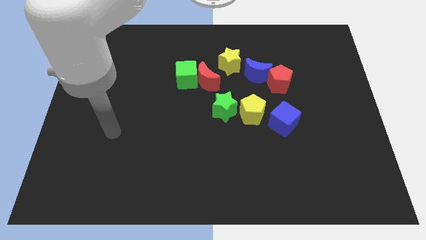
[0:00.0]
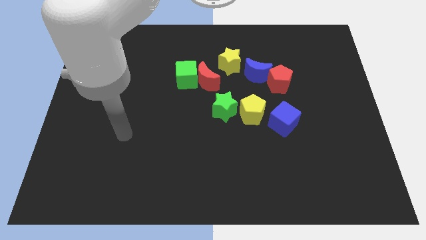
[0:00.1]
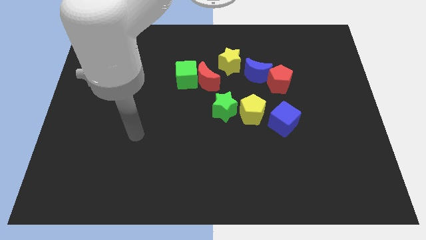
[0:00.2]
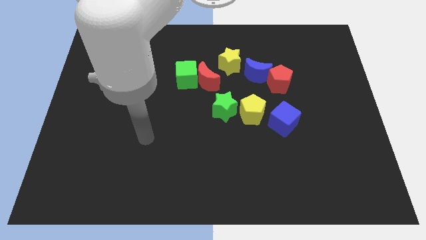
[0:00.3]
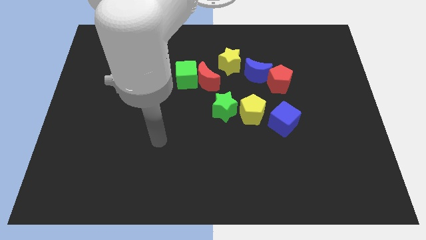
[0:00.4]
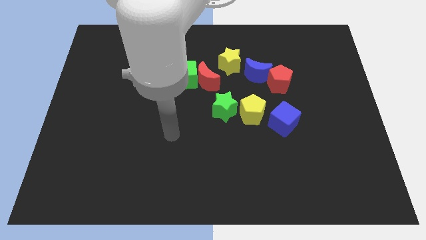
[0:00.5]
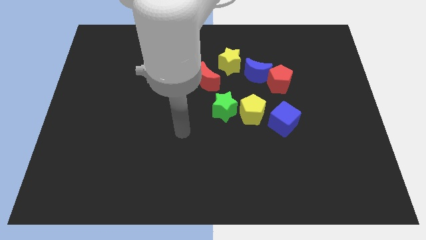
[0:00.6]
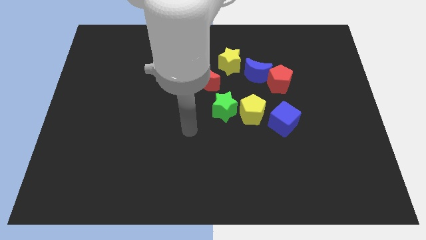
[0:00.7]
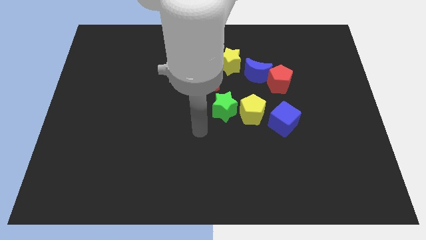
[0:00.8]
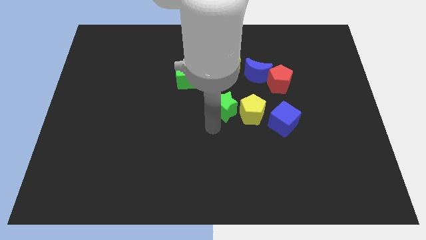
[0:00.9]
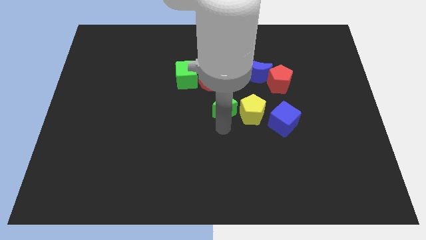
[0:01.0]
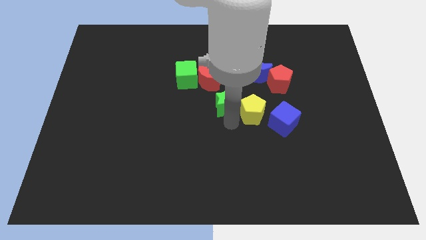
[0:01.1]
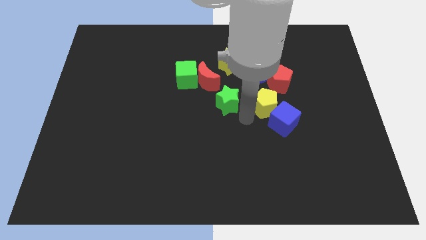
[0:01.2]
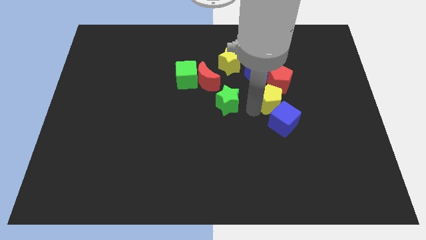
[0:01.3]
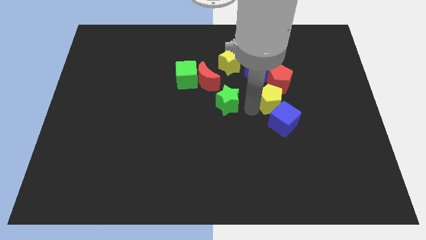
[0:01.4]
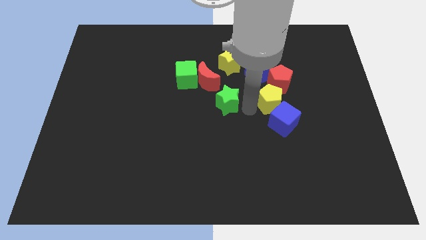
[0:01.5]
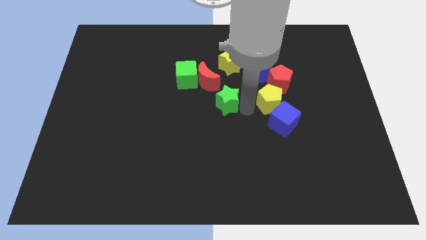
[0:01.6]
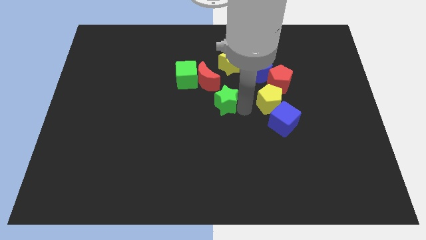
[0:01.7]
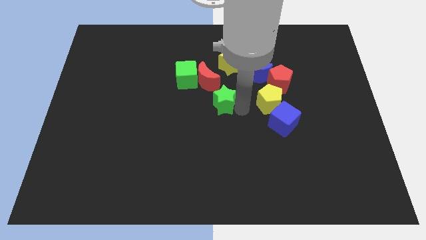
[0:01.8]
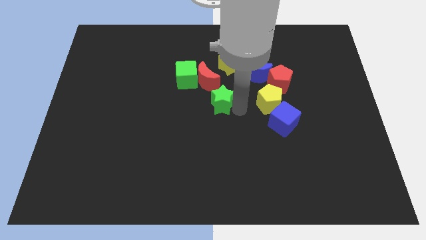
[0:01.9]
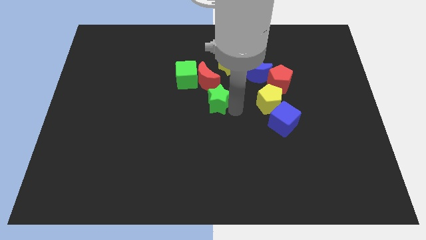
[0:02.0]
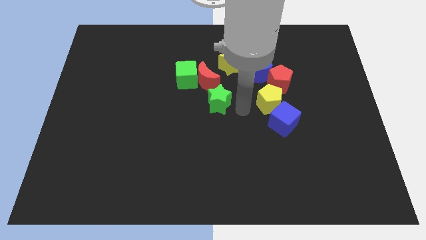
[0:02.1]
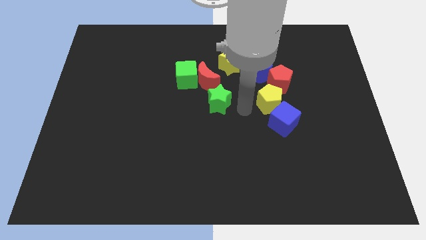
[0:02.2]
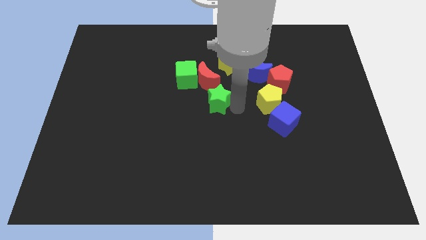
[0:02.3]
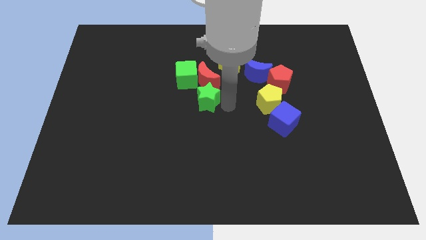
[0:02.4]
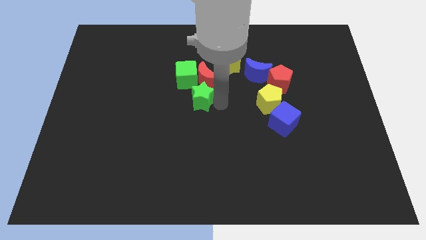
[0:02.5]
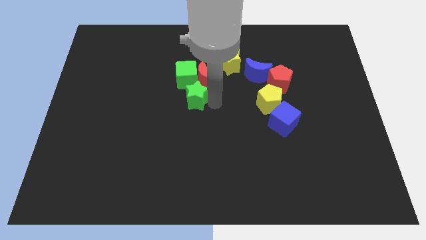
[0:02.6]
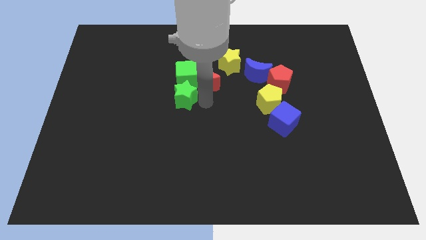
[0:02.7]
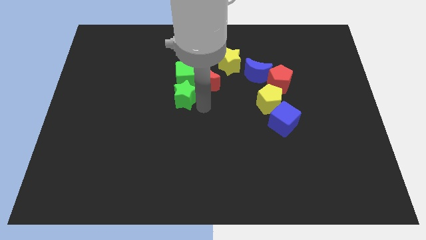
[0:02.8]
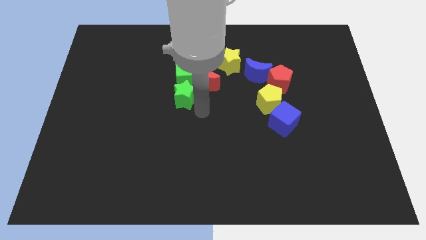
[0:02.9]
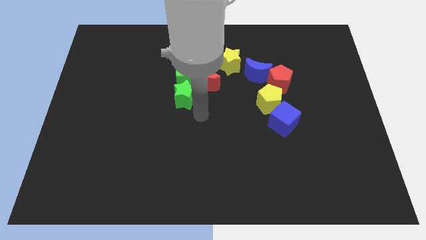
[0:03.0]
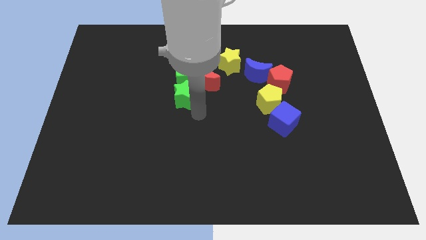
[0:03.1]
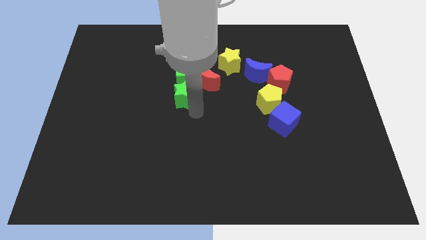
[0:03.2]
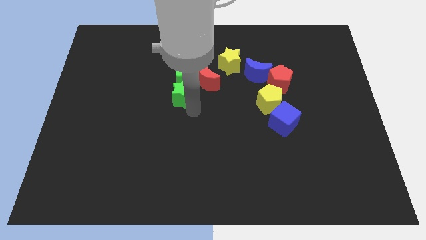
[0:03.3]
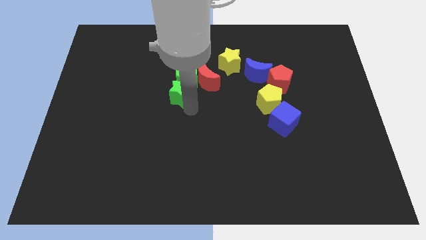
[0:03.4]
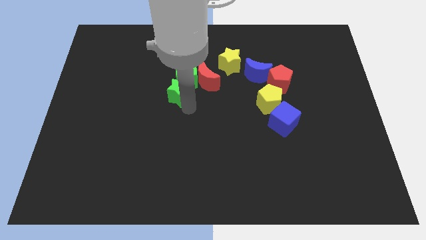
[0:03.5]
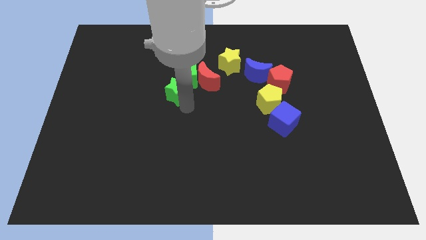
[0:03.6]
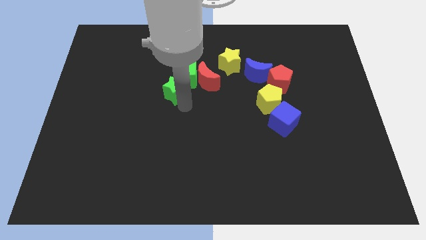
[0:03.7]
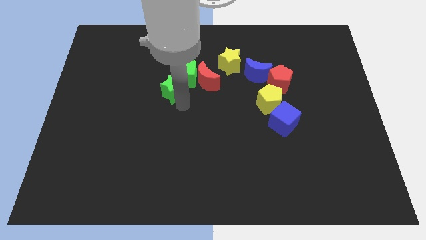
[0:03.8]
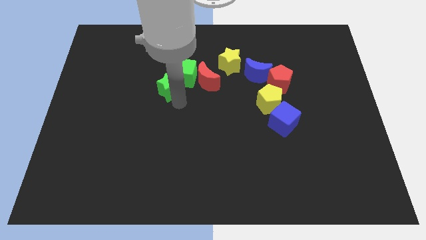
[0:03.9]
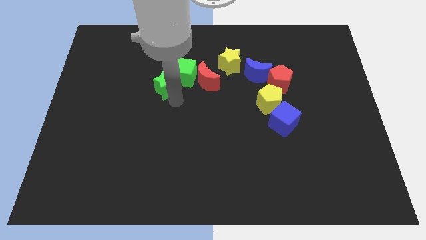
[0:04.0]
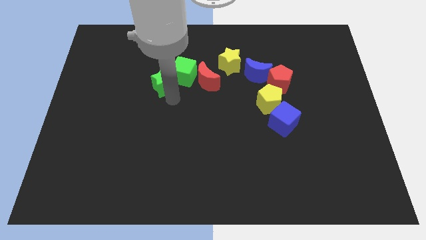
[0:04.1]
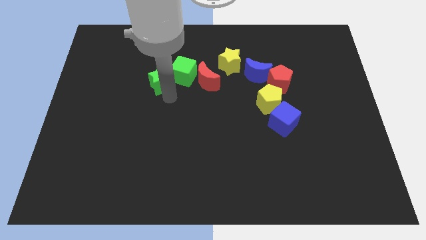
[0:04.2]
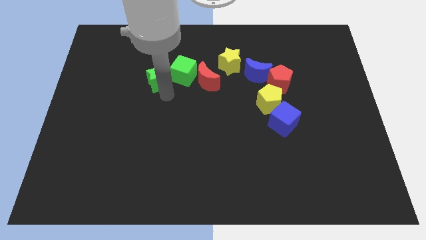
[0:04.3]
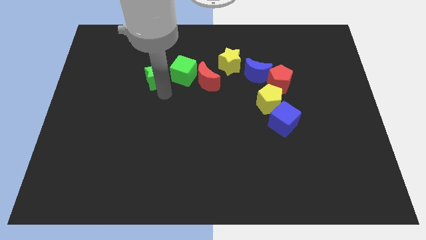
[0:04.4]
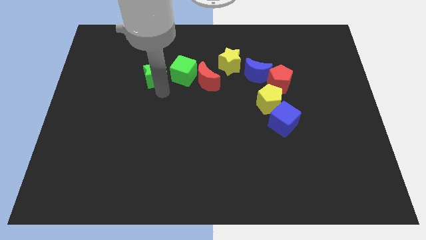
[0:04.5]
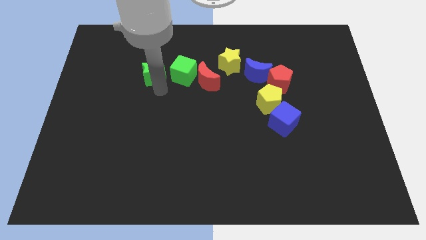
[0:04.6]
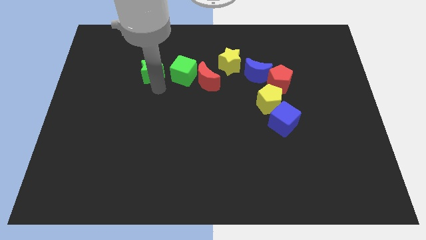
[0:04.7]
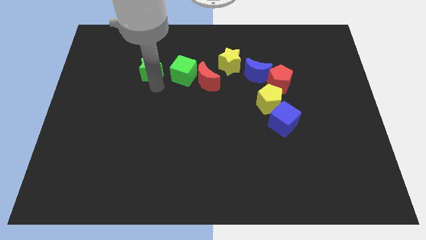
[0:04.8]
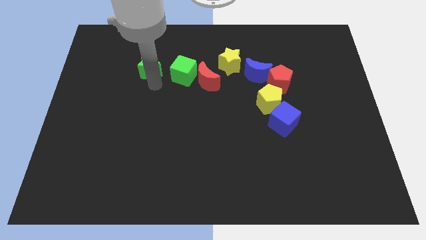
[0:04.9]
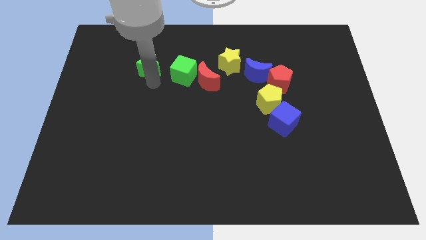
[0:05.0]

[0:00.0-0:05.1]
push the green star to the top left side of the green cube

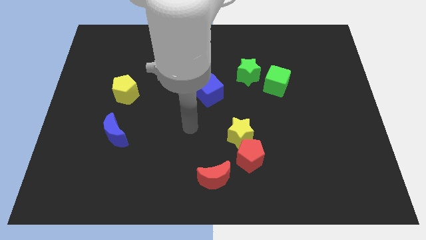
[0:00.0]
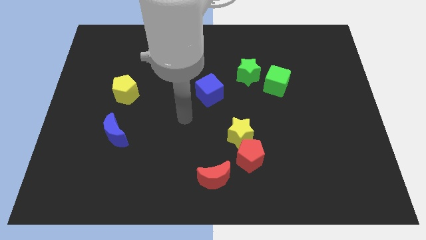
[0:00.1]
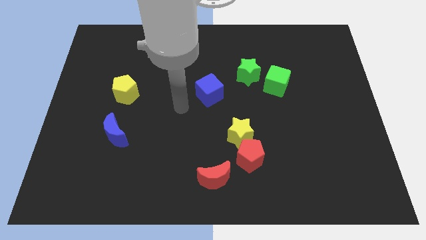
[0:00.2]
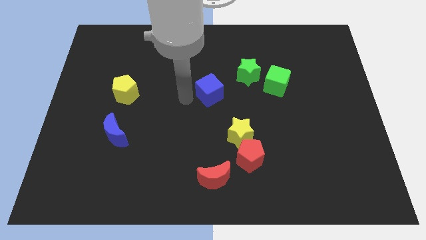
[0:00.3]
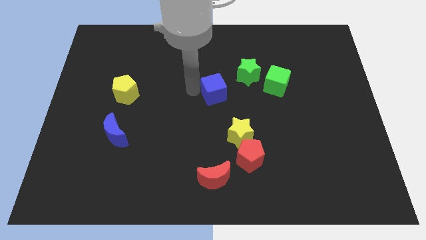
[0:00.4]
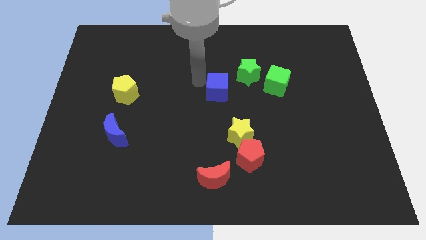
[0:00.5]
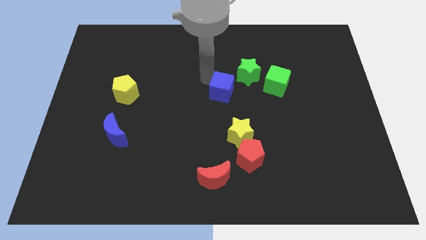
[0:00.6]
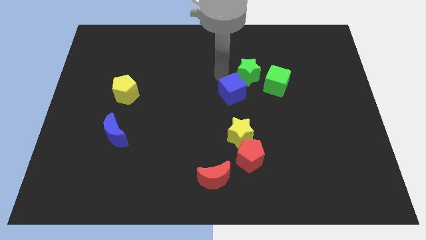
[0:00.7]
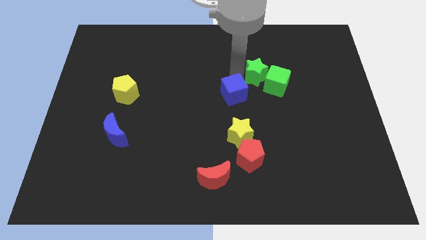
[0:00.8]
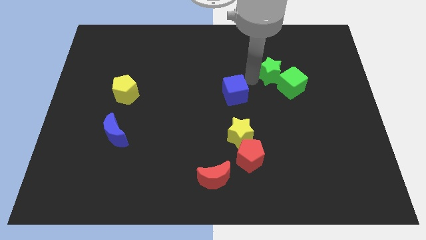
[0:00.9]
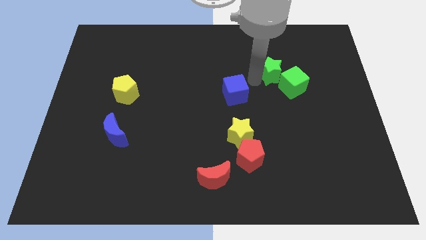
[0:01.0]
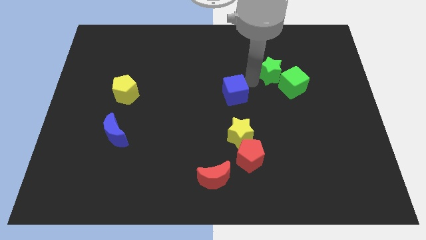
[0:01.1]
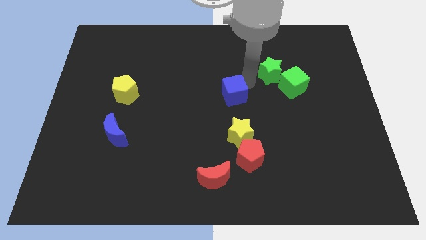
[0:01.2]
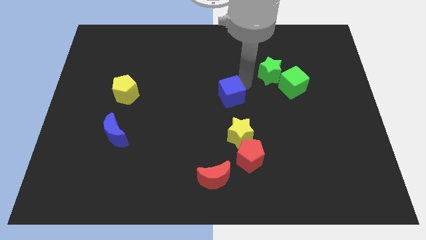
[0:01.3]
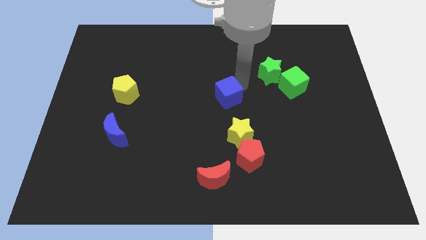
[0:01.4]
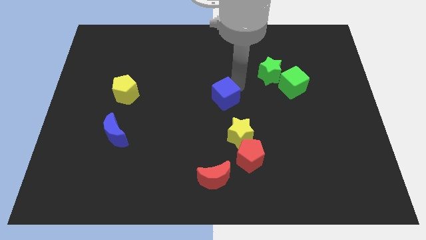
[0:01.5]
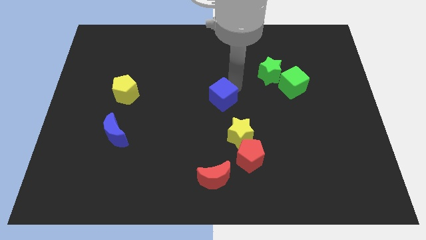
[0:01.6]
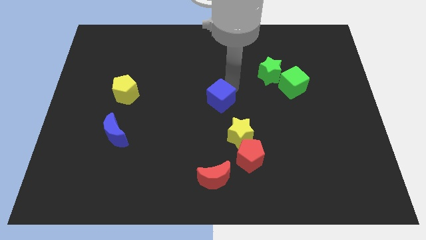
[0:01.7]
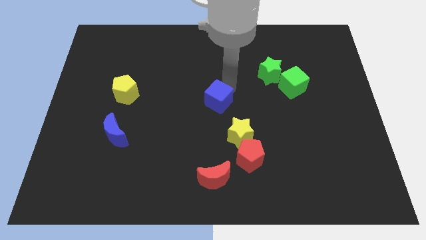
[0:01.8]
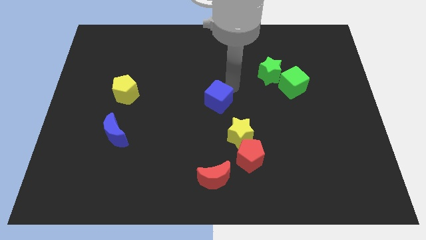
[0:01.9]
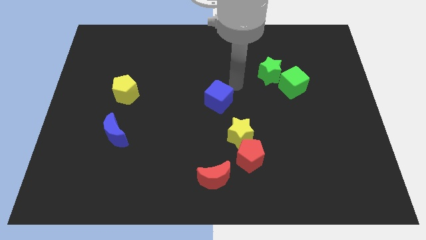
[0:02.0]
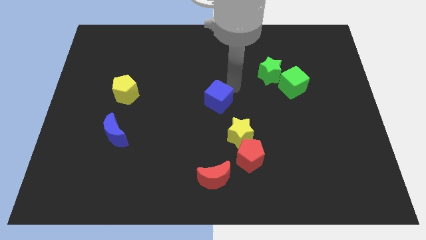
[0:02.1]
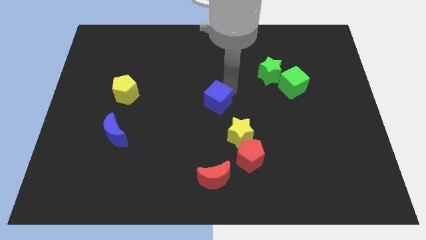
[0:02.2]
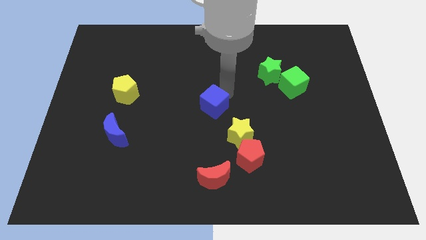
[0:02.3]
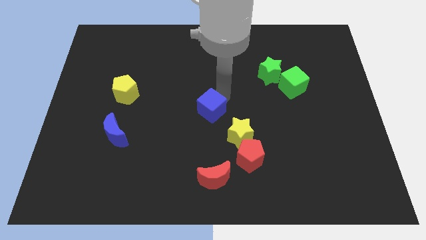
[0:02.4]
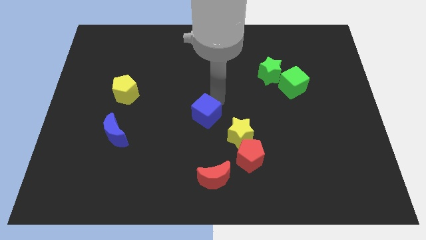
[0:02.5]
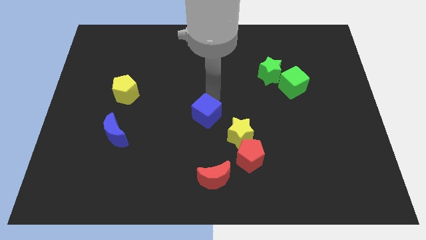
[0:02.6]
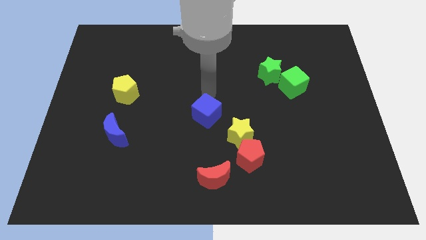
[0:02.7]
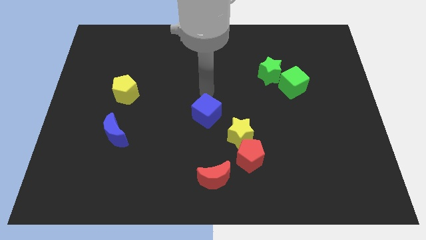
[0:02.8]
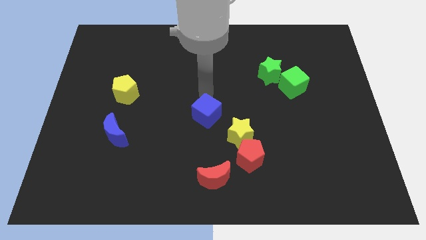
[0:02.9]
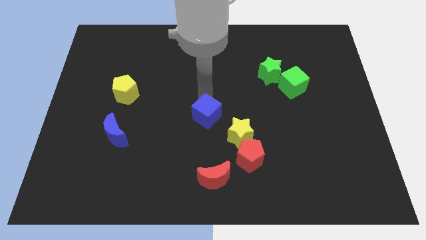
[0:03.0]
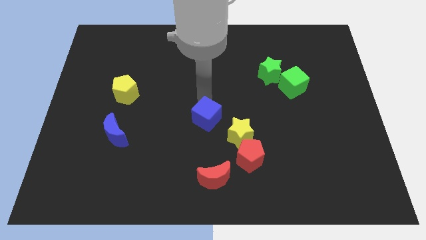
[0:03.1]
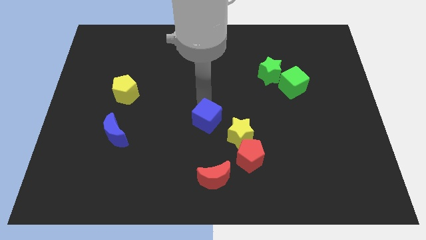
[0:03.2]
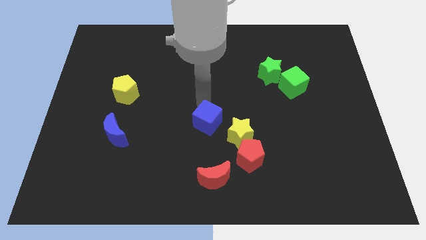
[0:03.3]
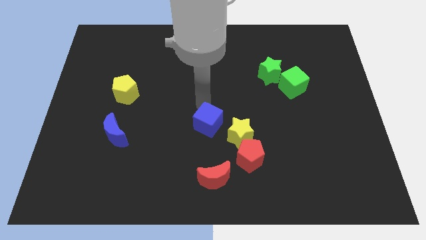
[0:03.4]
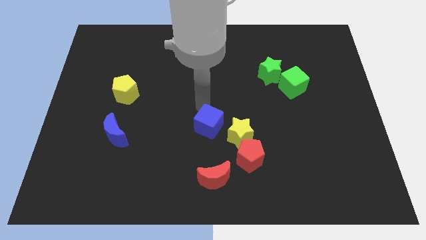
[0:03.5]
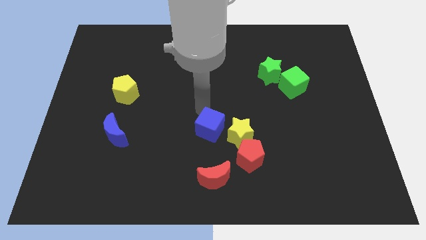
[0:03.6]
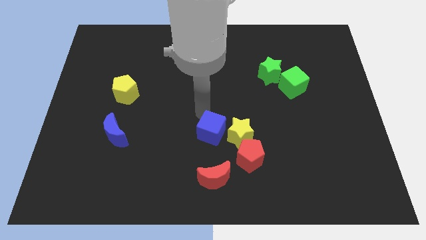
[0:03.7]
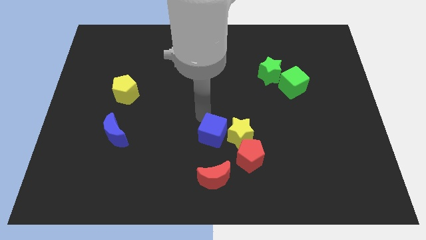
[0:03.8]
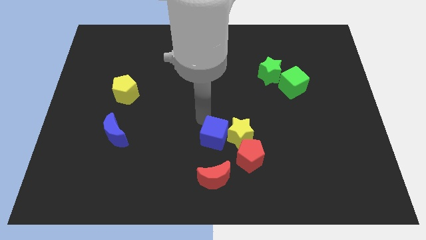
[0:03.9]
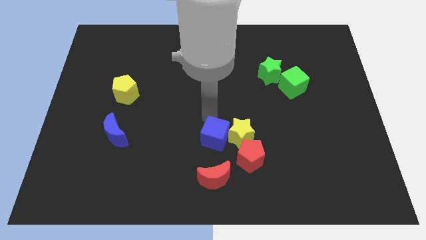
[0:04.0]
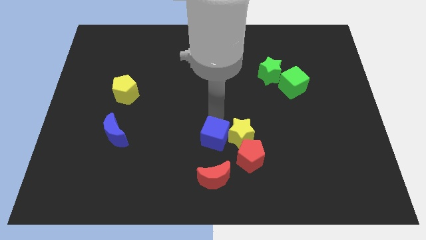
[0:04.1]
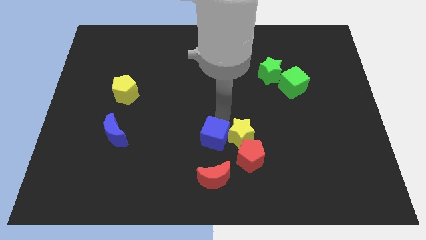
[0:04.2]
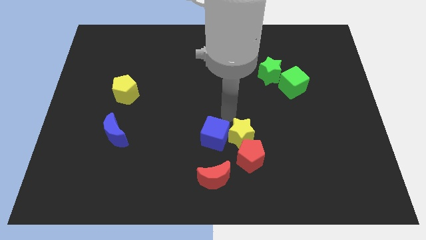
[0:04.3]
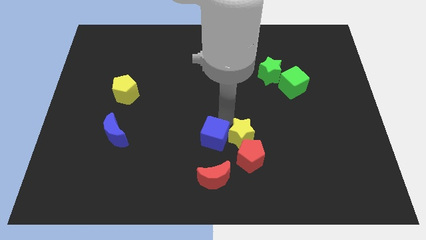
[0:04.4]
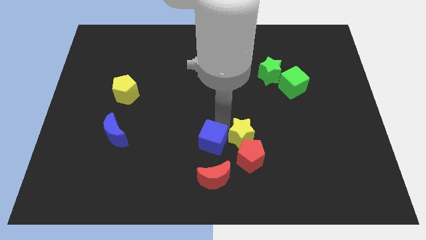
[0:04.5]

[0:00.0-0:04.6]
slide the blue cube to the left side of the red pentagon
